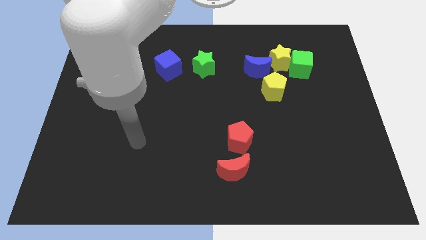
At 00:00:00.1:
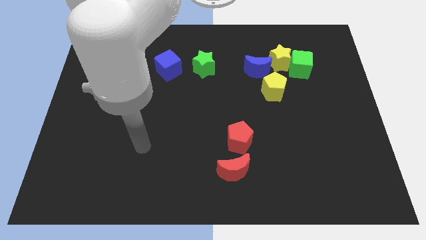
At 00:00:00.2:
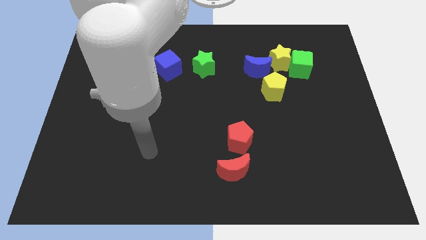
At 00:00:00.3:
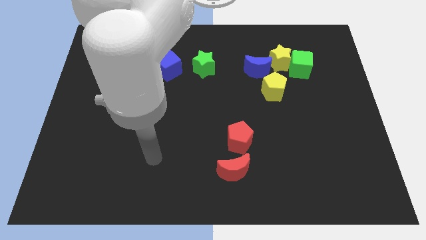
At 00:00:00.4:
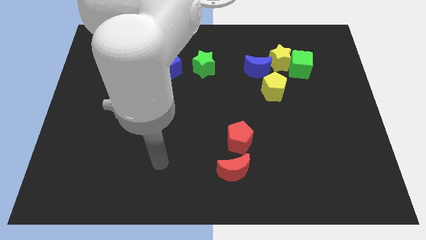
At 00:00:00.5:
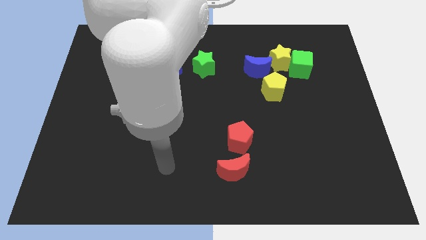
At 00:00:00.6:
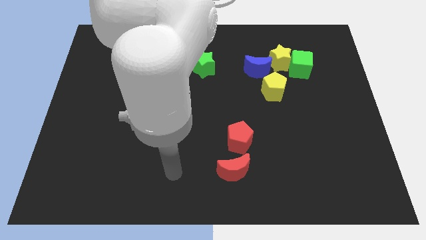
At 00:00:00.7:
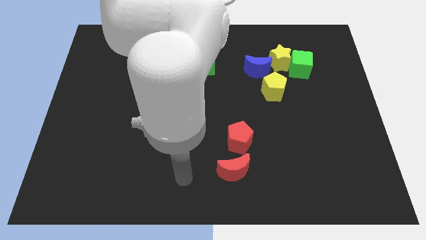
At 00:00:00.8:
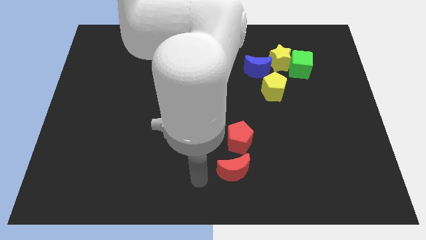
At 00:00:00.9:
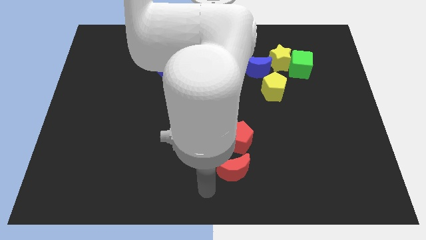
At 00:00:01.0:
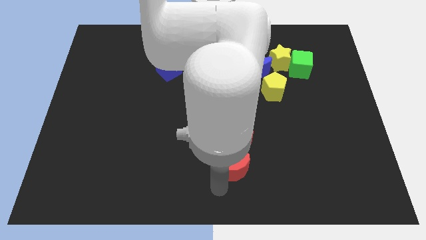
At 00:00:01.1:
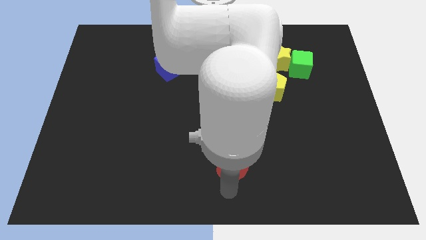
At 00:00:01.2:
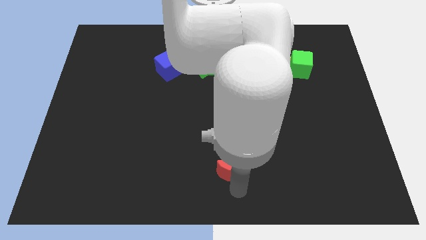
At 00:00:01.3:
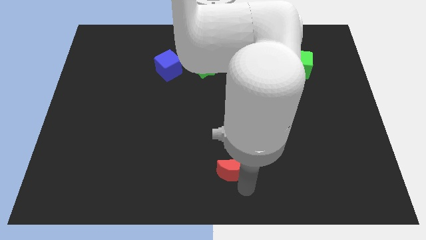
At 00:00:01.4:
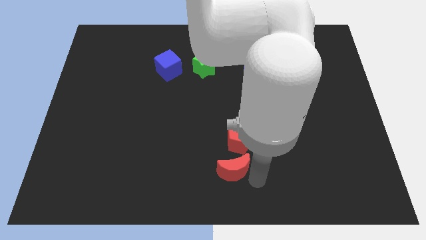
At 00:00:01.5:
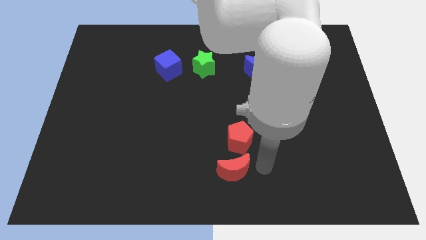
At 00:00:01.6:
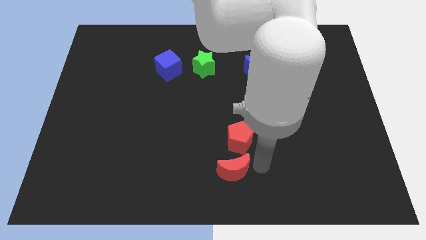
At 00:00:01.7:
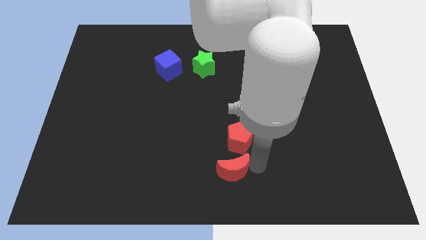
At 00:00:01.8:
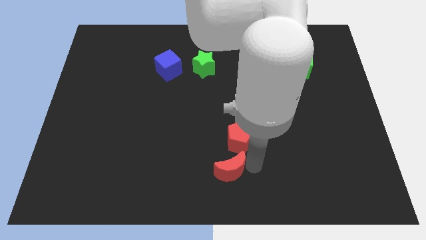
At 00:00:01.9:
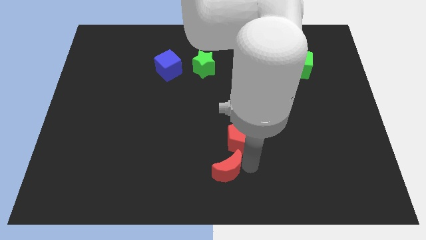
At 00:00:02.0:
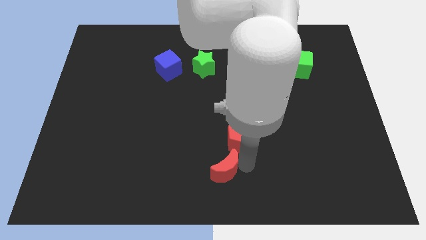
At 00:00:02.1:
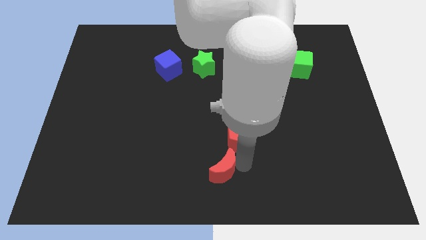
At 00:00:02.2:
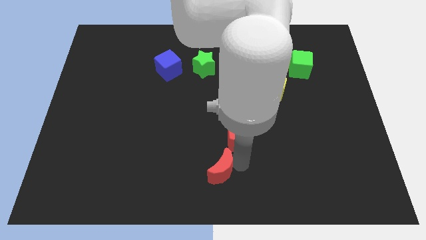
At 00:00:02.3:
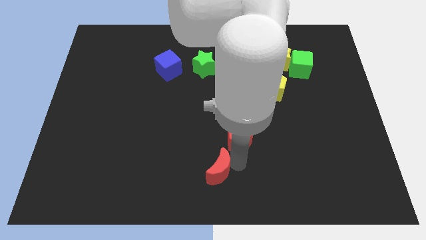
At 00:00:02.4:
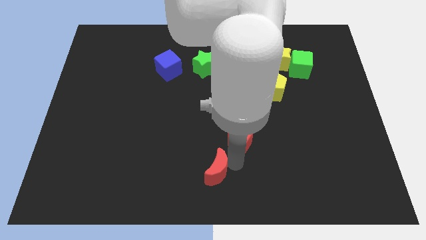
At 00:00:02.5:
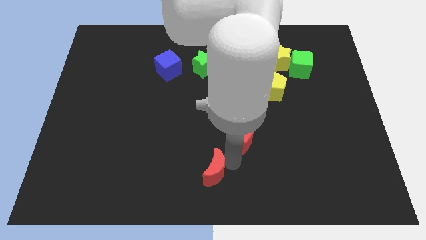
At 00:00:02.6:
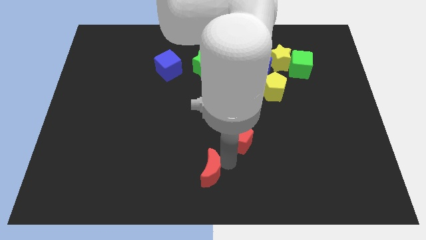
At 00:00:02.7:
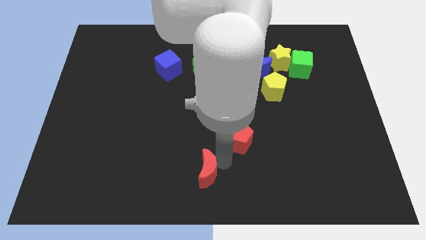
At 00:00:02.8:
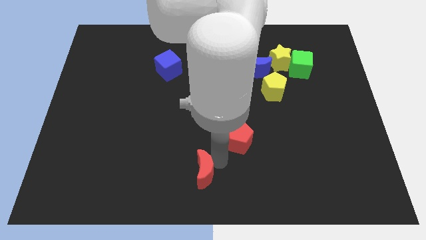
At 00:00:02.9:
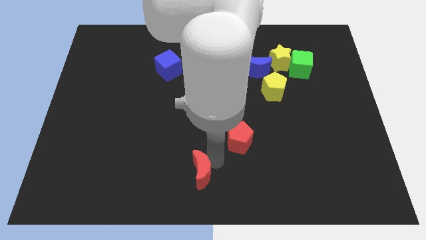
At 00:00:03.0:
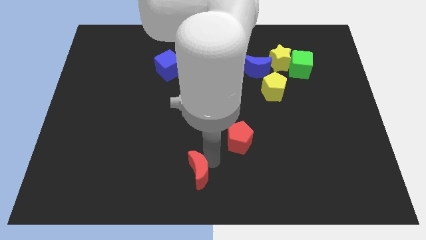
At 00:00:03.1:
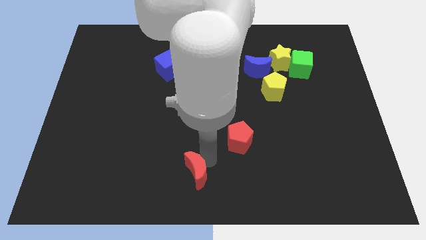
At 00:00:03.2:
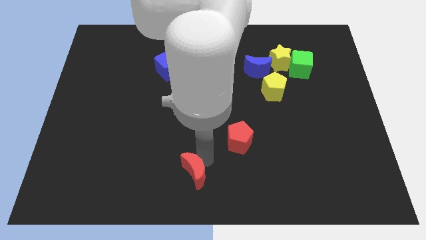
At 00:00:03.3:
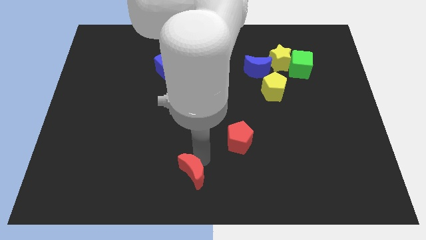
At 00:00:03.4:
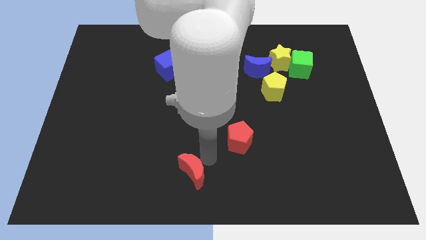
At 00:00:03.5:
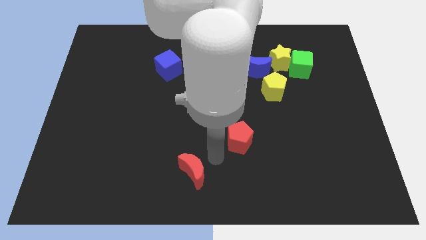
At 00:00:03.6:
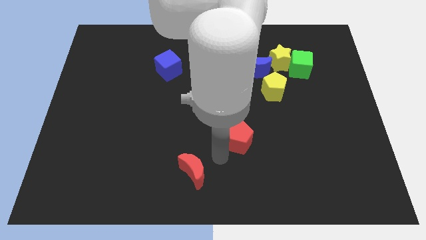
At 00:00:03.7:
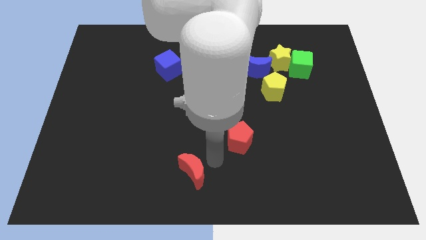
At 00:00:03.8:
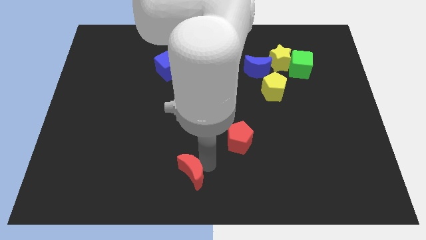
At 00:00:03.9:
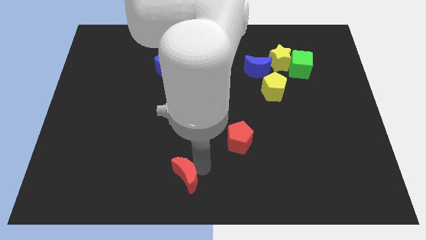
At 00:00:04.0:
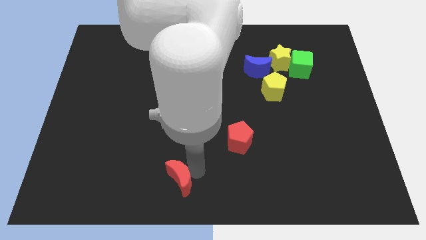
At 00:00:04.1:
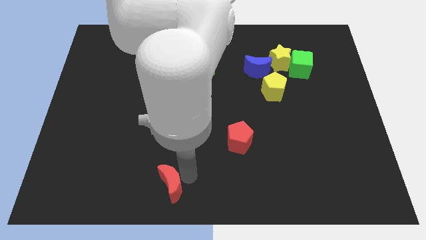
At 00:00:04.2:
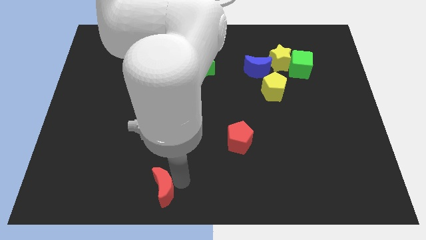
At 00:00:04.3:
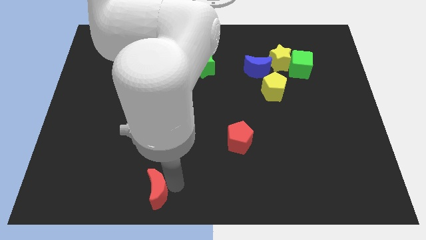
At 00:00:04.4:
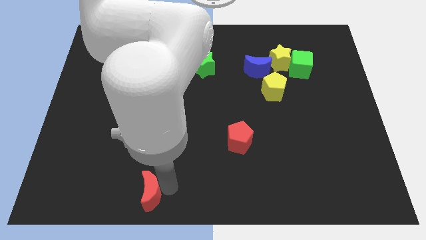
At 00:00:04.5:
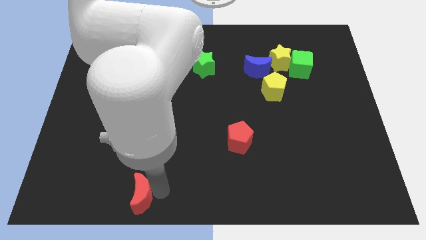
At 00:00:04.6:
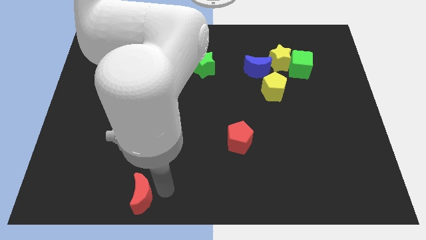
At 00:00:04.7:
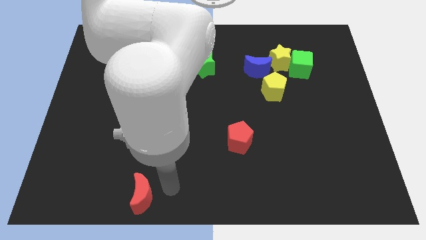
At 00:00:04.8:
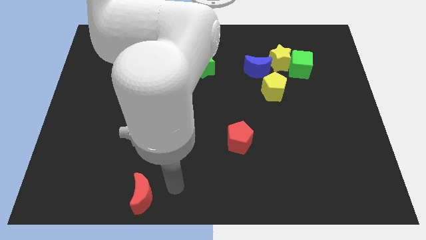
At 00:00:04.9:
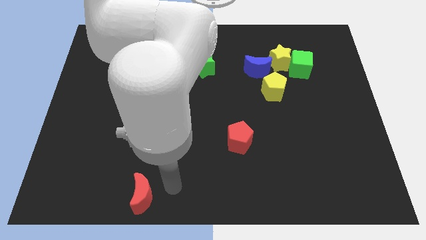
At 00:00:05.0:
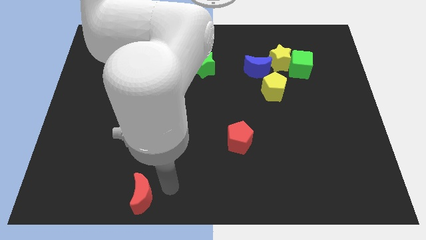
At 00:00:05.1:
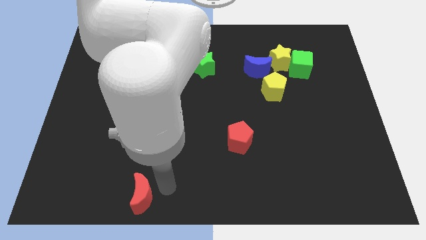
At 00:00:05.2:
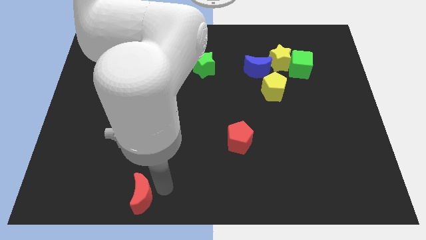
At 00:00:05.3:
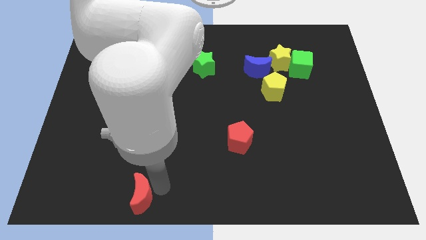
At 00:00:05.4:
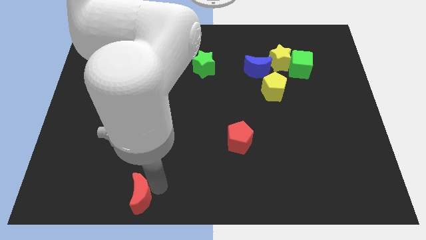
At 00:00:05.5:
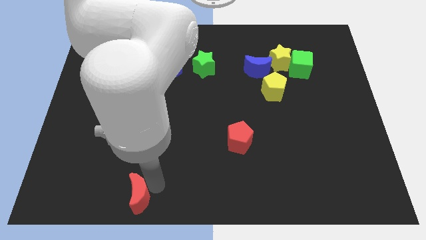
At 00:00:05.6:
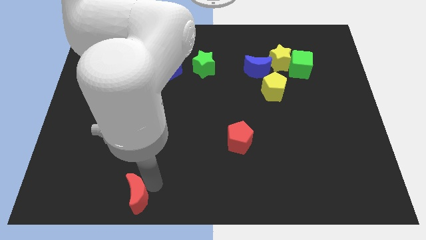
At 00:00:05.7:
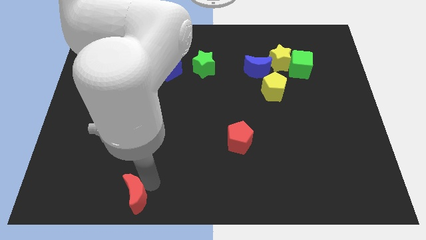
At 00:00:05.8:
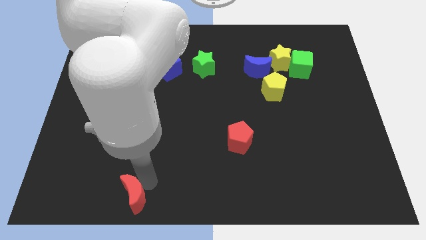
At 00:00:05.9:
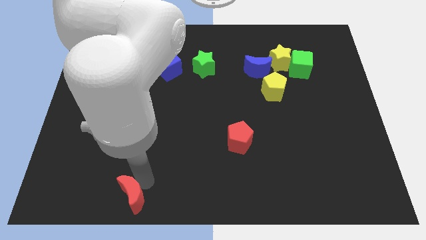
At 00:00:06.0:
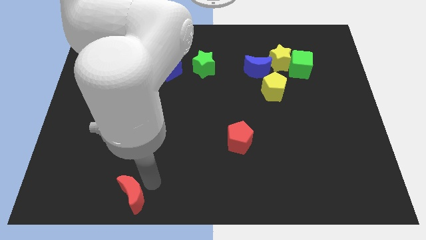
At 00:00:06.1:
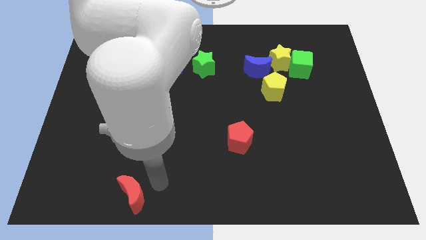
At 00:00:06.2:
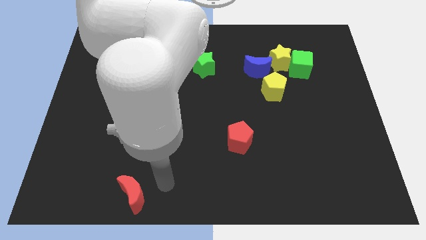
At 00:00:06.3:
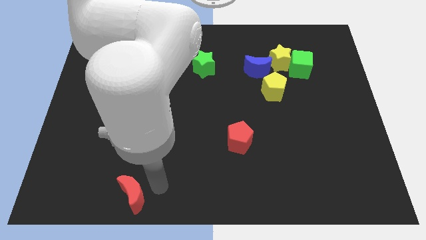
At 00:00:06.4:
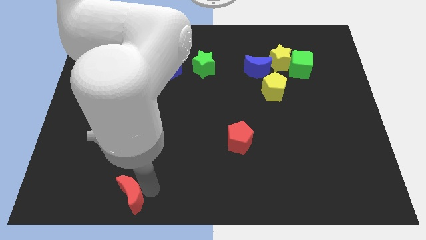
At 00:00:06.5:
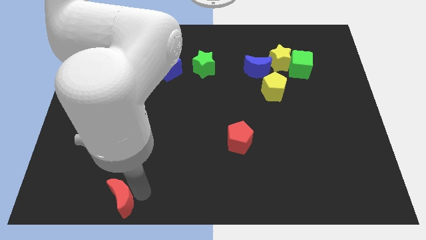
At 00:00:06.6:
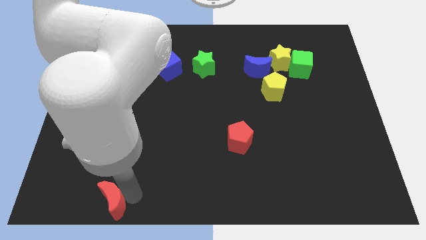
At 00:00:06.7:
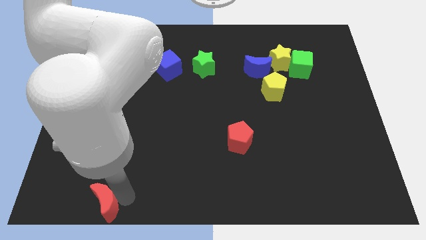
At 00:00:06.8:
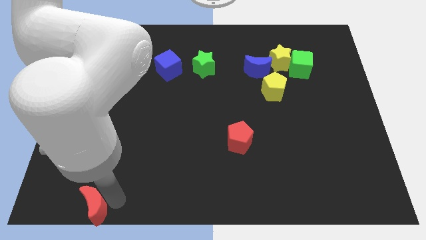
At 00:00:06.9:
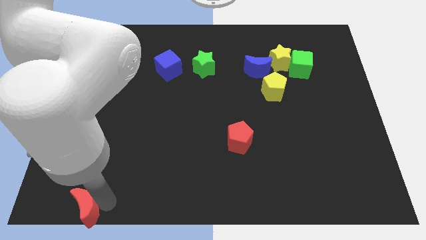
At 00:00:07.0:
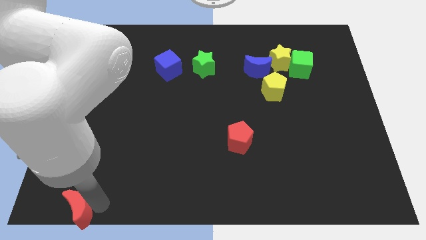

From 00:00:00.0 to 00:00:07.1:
slide the red moon to the bottom left

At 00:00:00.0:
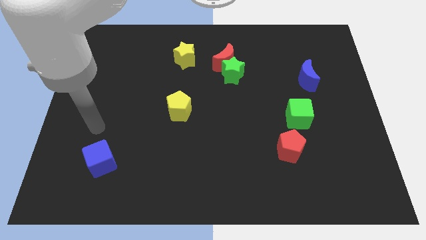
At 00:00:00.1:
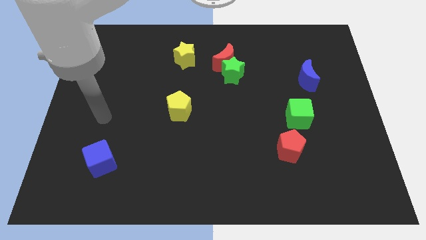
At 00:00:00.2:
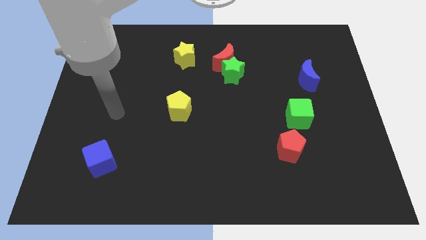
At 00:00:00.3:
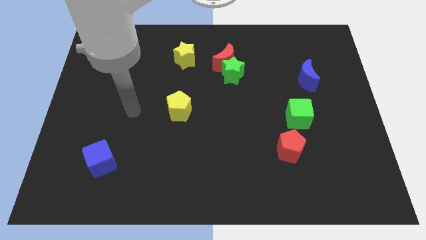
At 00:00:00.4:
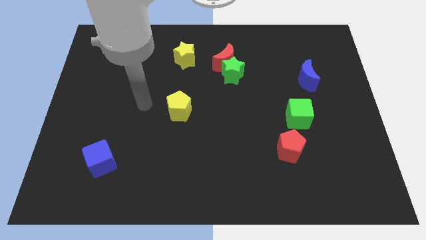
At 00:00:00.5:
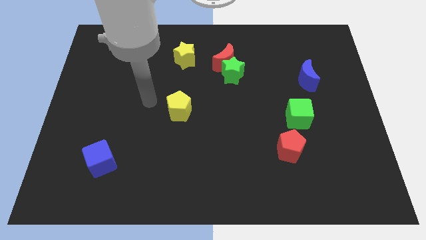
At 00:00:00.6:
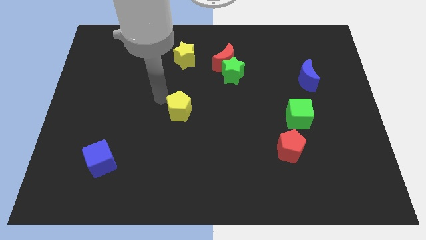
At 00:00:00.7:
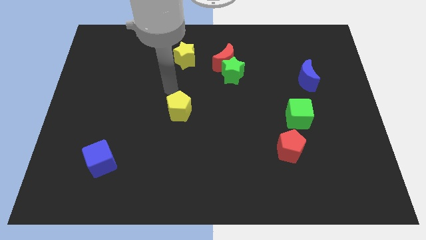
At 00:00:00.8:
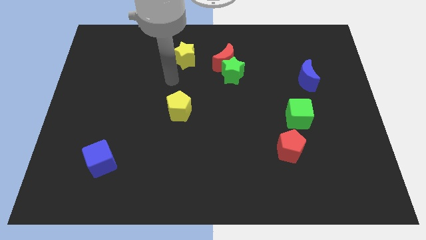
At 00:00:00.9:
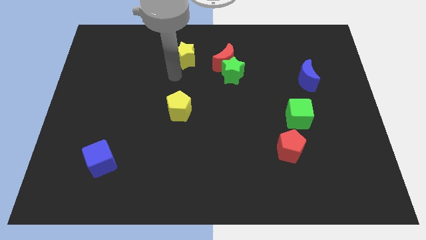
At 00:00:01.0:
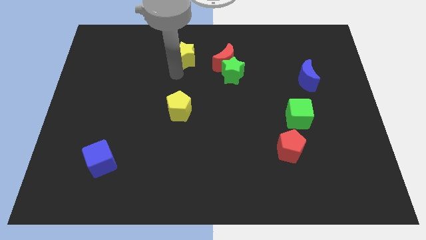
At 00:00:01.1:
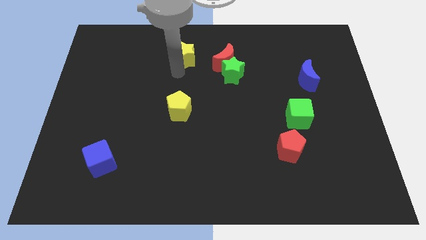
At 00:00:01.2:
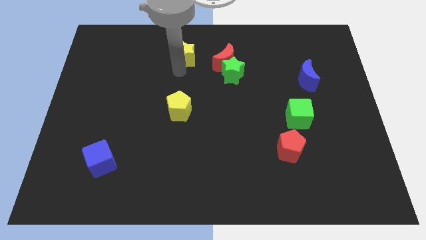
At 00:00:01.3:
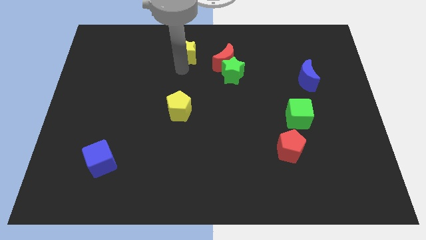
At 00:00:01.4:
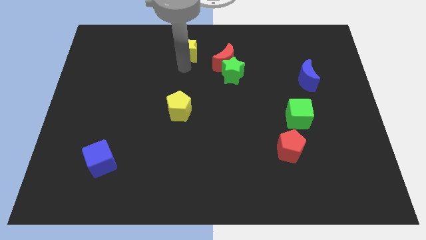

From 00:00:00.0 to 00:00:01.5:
push the yellow star to the top
